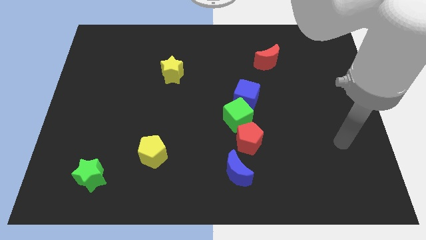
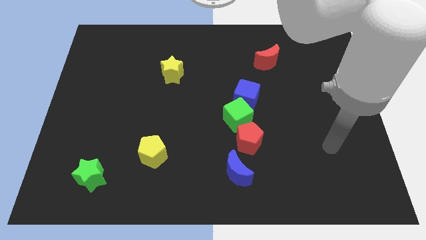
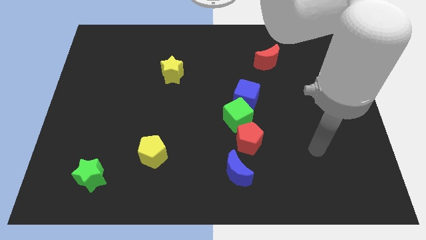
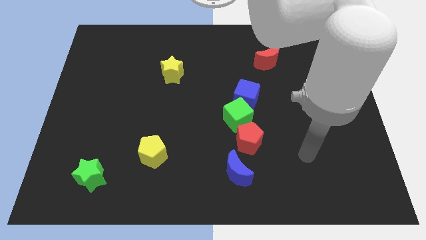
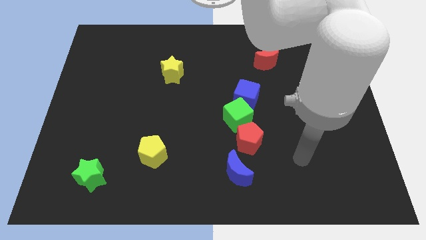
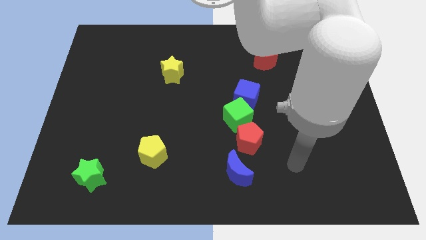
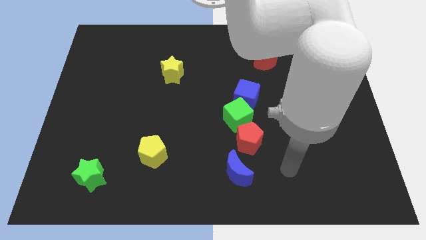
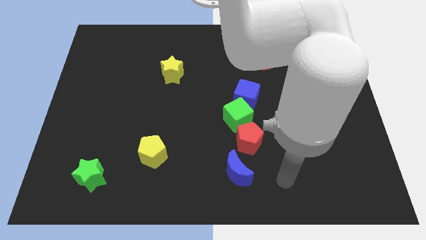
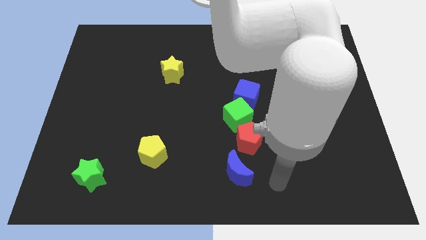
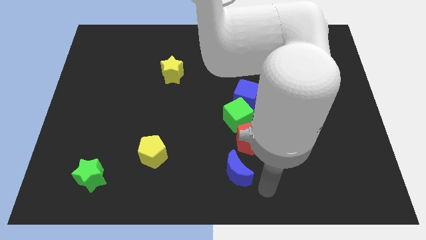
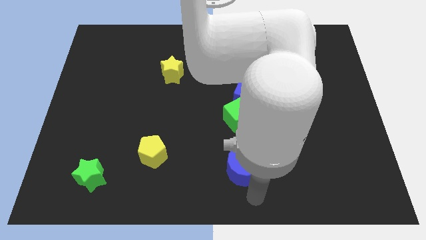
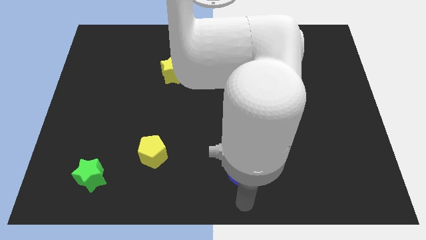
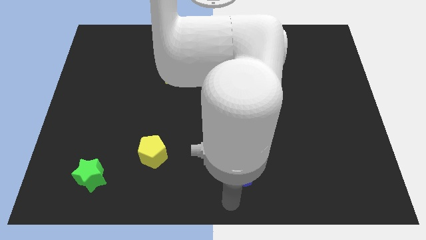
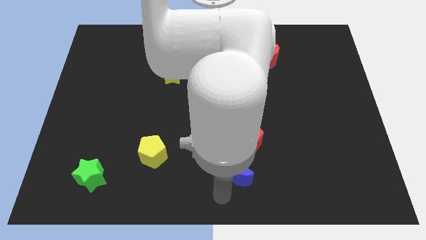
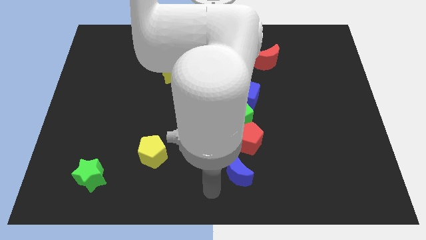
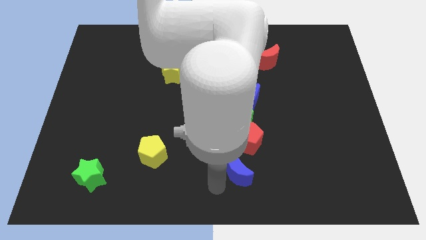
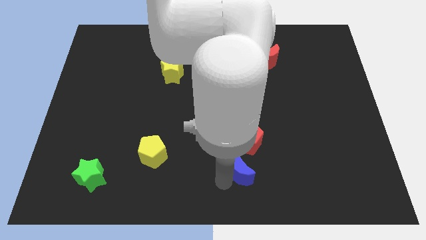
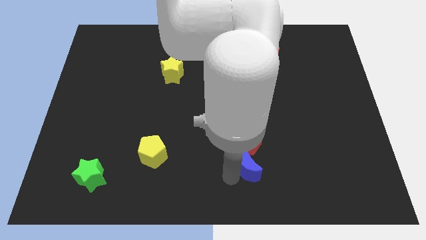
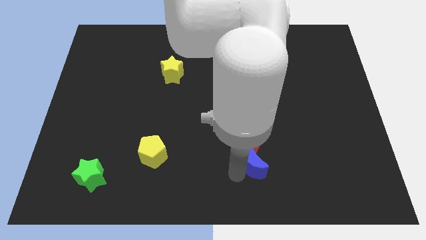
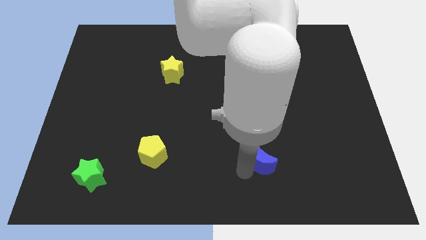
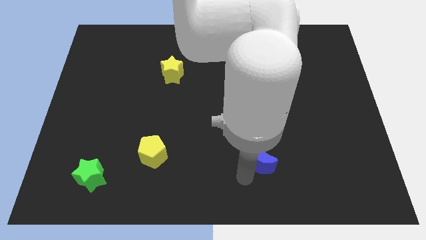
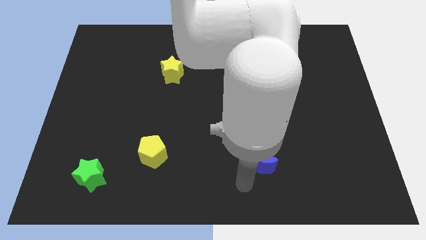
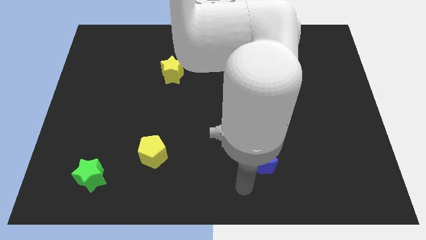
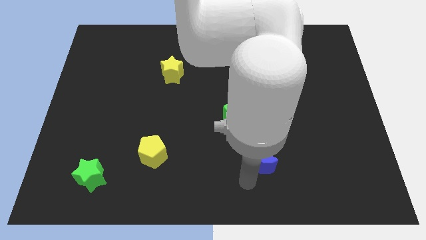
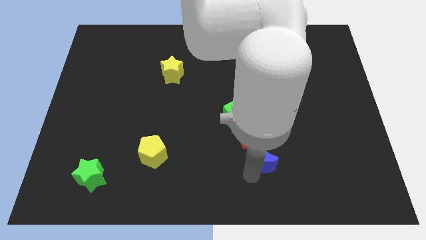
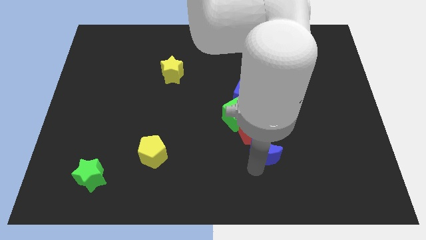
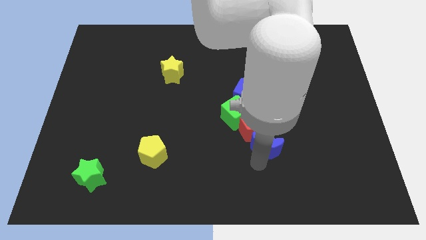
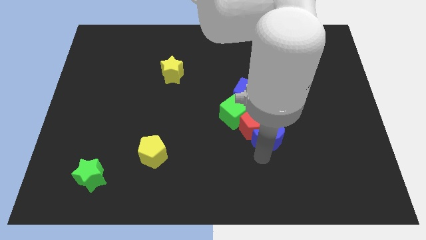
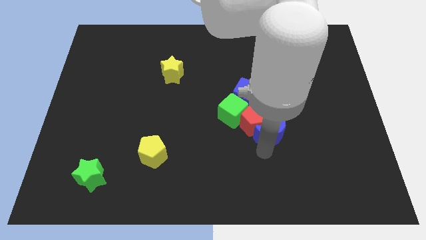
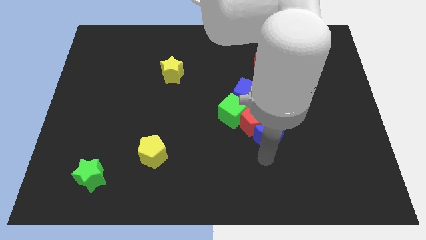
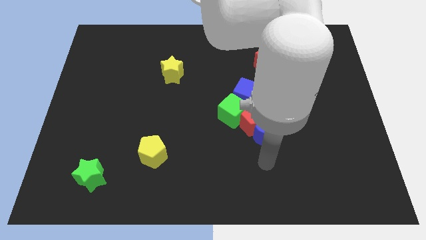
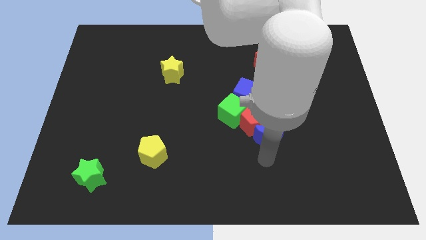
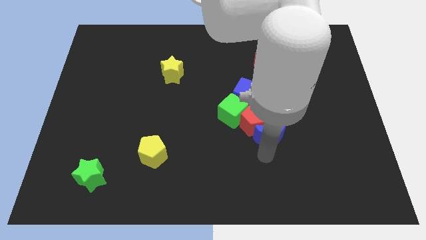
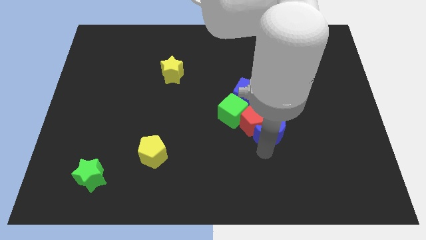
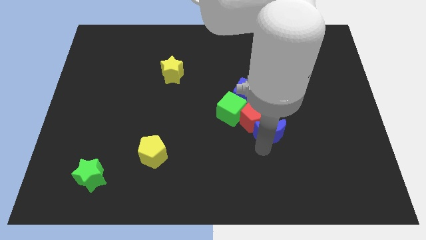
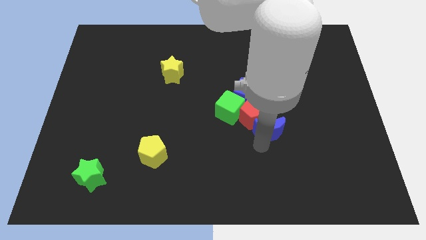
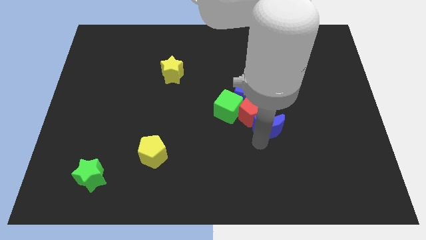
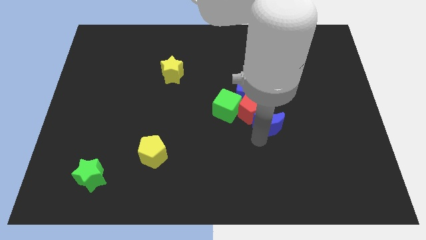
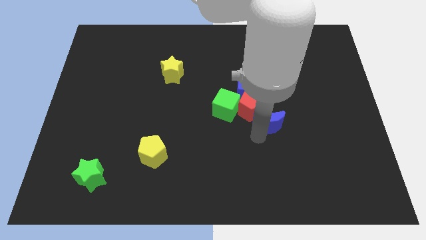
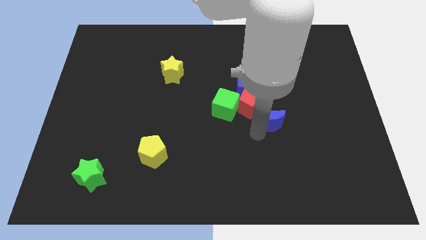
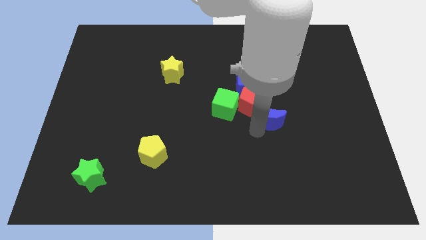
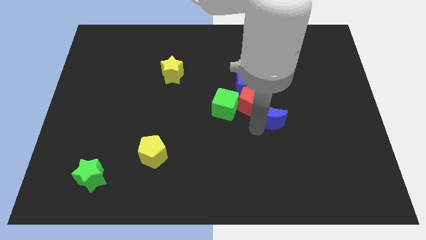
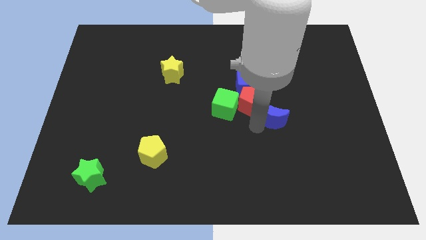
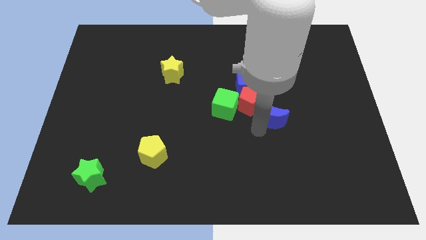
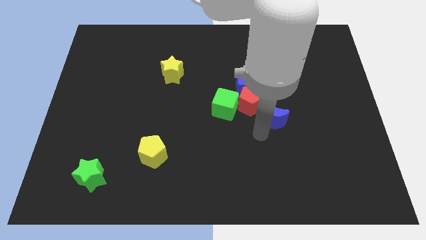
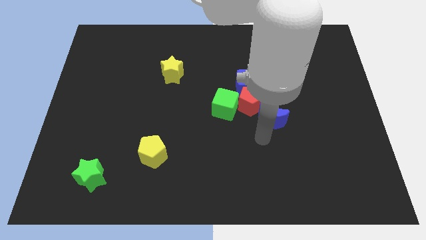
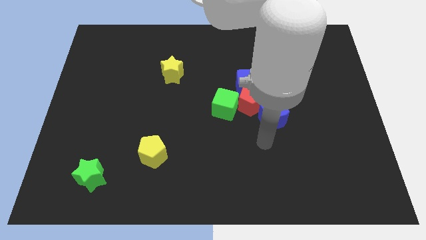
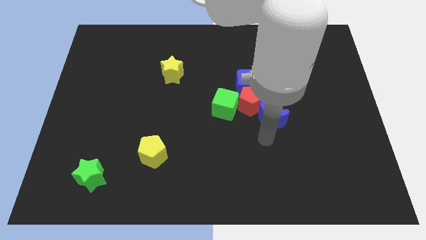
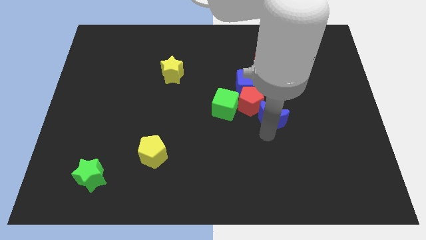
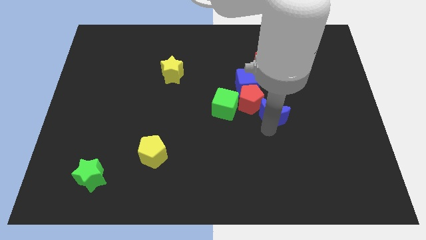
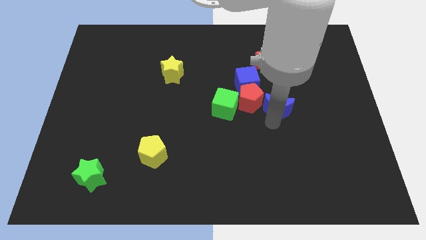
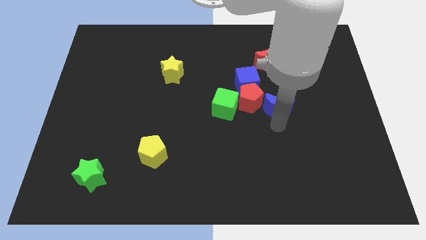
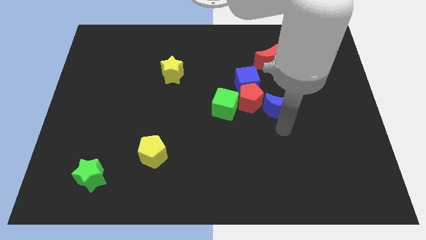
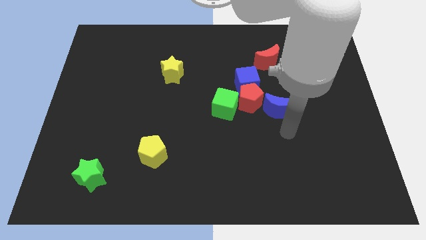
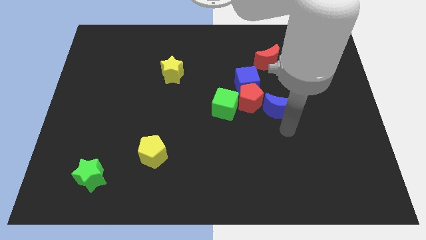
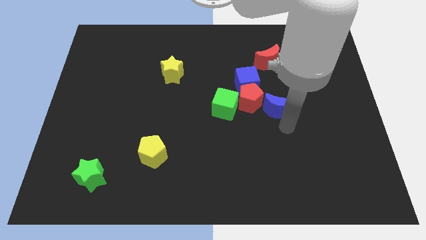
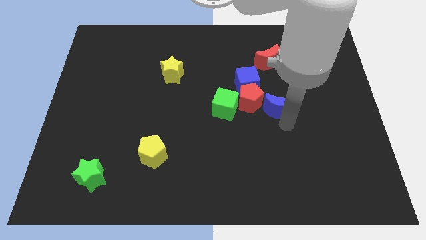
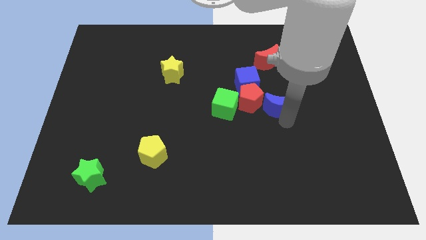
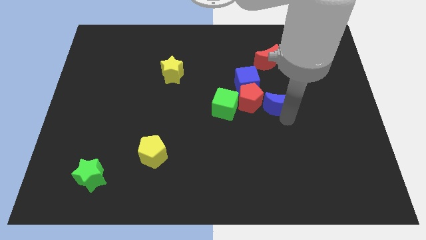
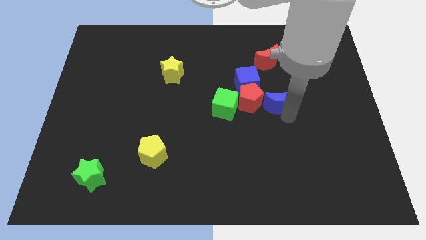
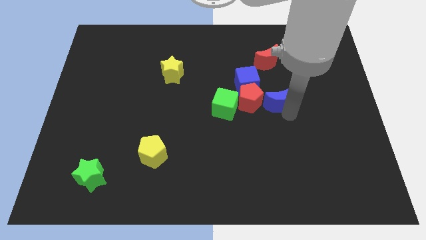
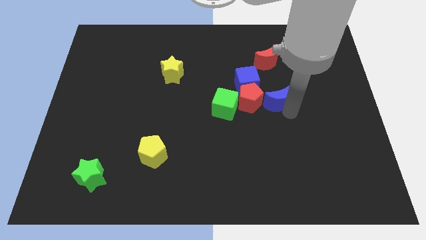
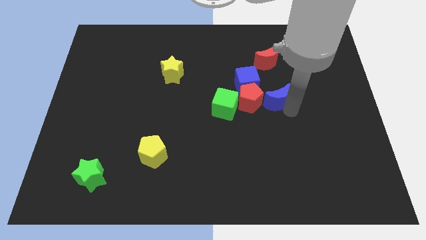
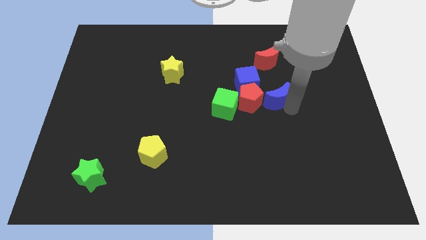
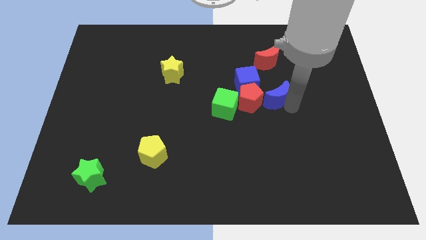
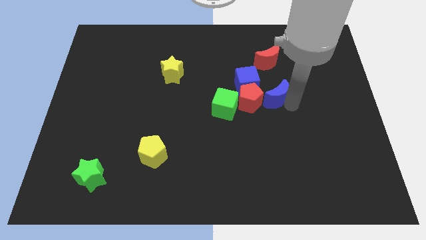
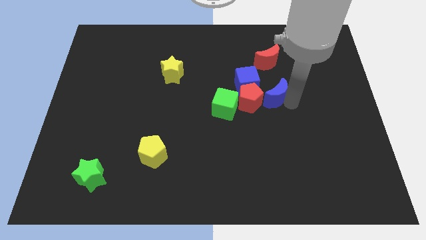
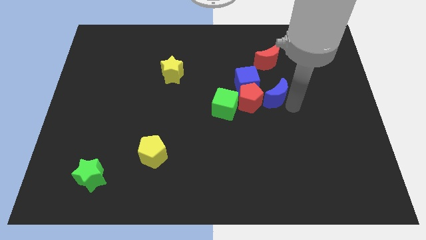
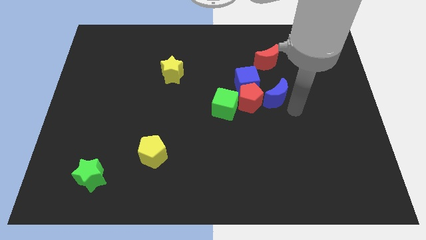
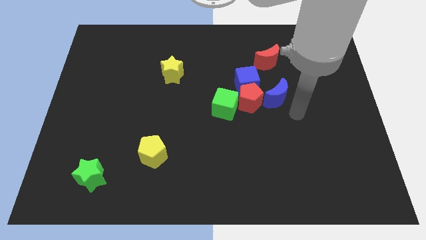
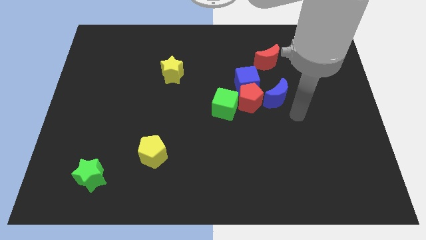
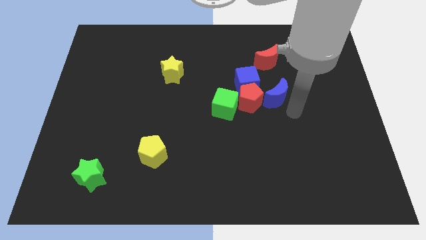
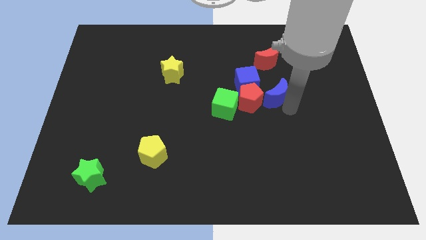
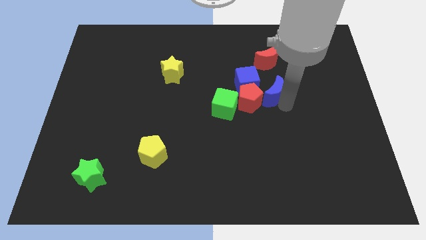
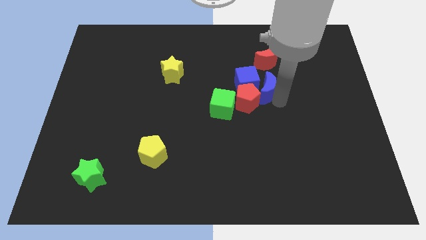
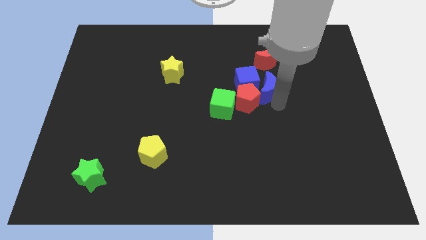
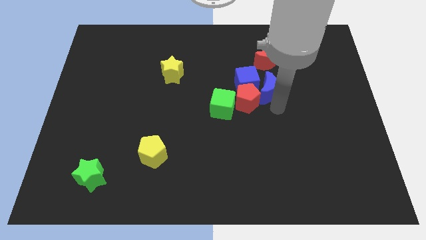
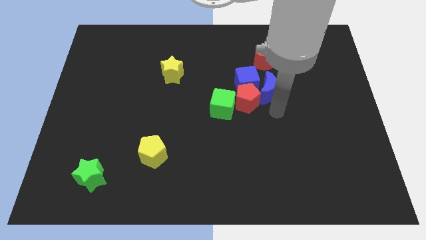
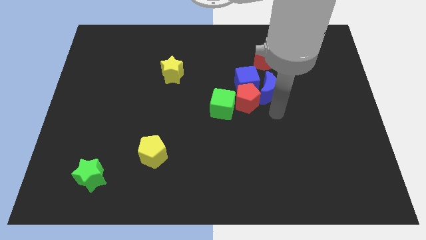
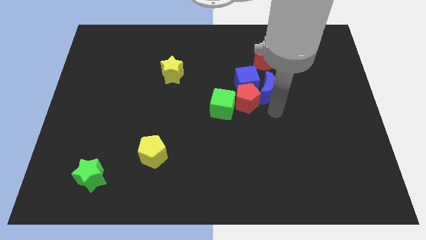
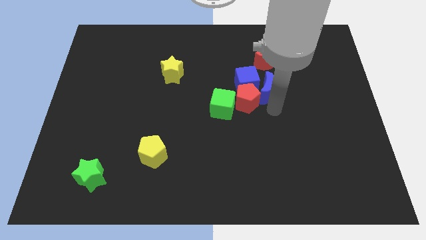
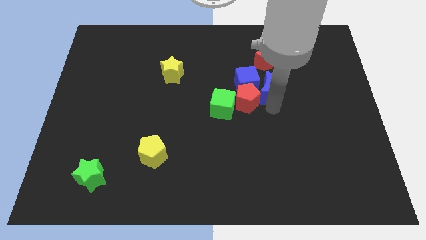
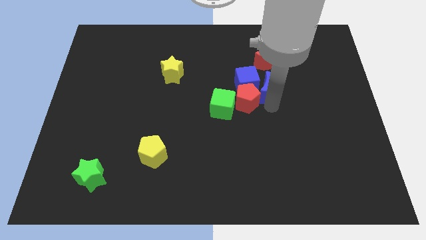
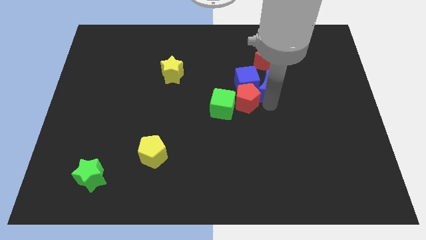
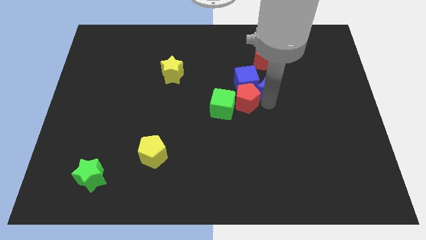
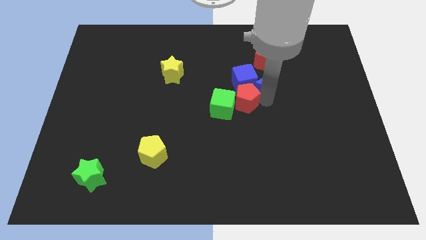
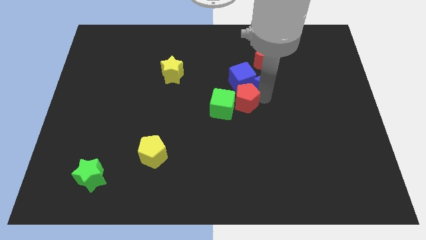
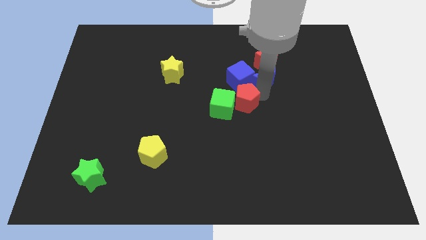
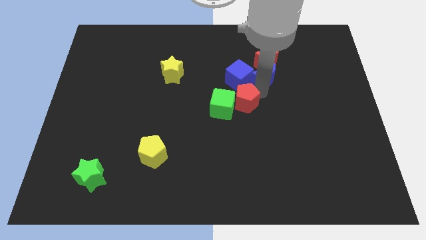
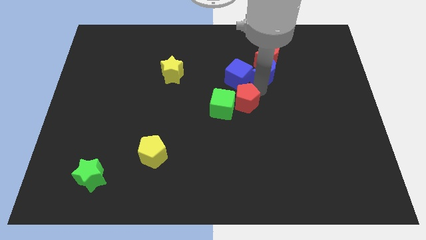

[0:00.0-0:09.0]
slide the blue moon close to the red moon
